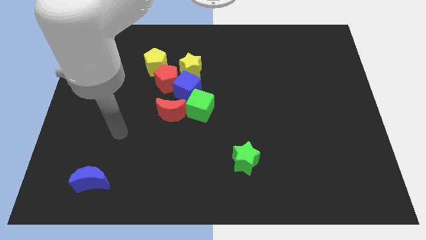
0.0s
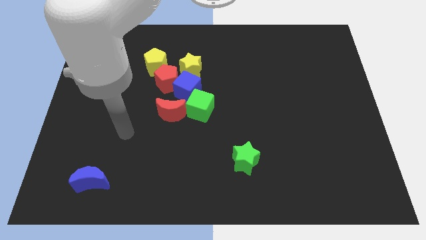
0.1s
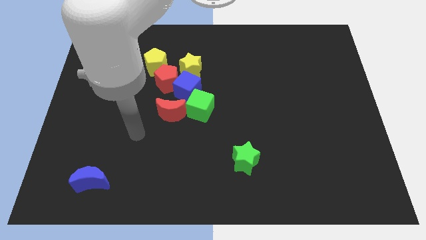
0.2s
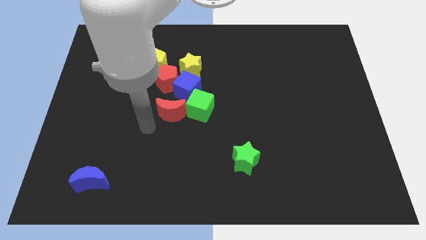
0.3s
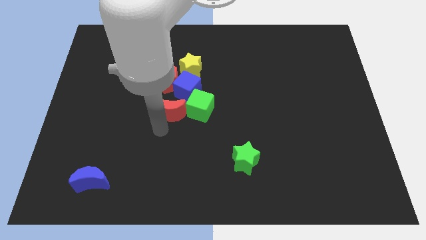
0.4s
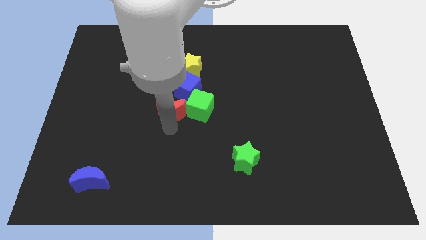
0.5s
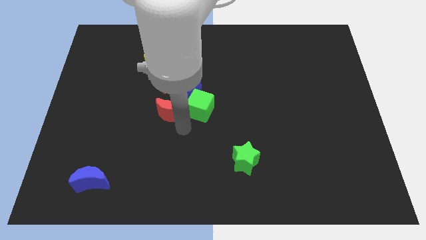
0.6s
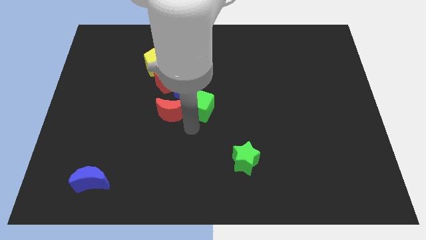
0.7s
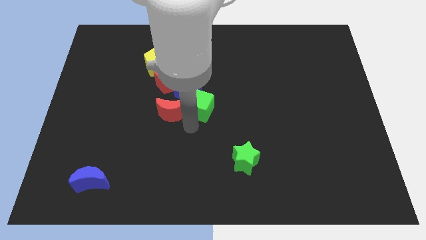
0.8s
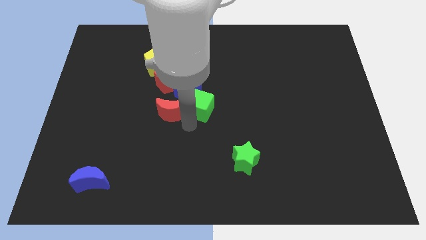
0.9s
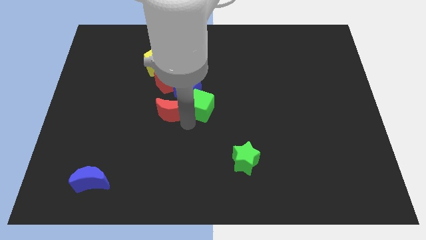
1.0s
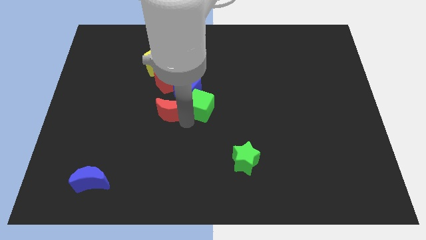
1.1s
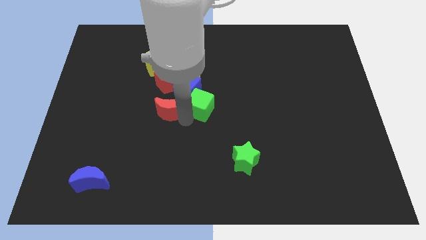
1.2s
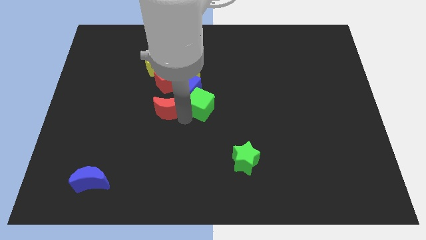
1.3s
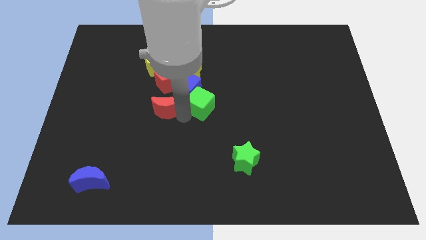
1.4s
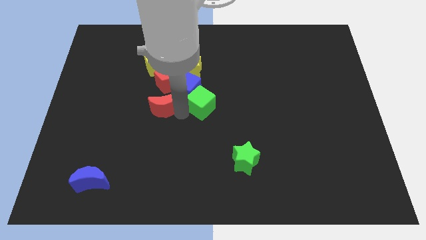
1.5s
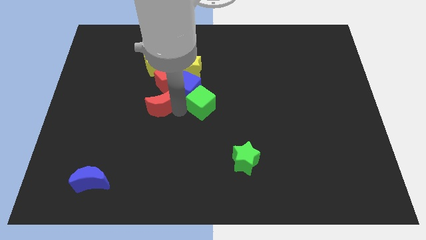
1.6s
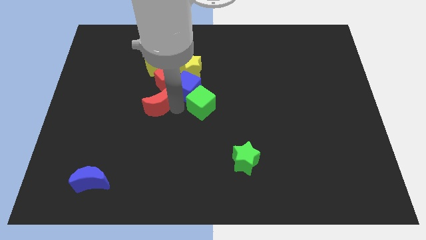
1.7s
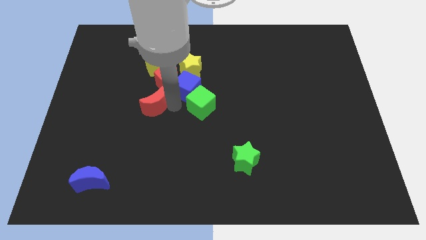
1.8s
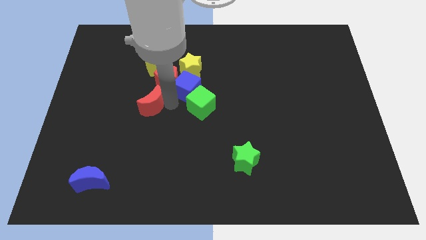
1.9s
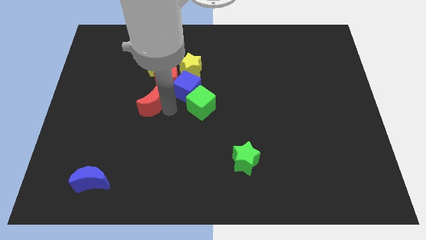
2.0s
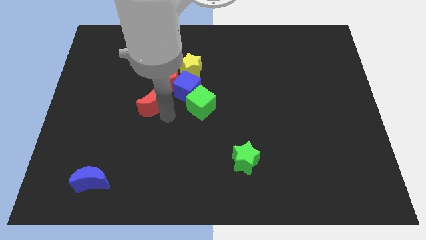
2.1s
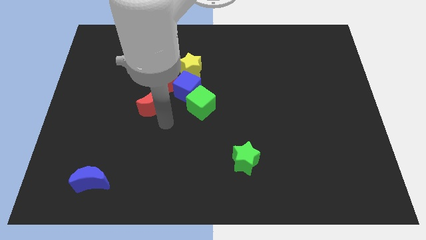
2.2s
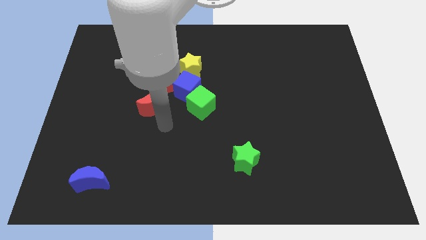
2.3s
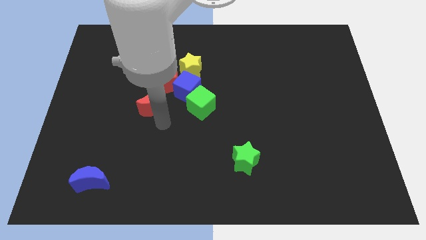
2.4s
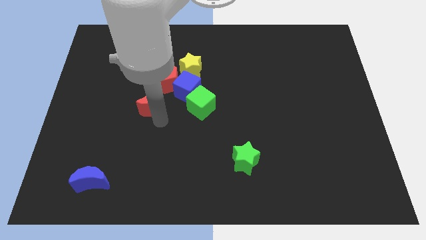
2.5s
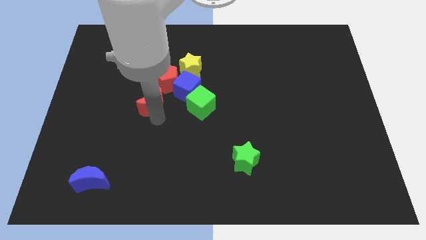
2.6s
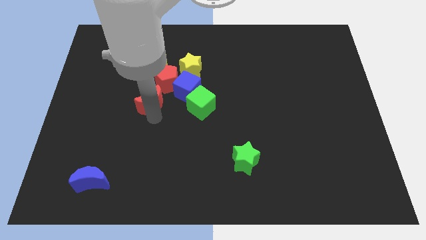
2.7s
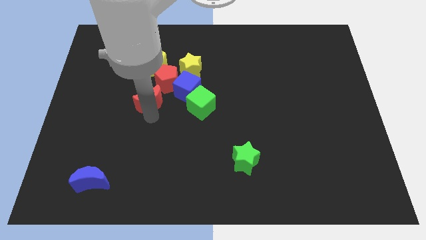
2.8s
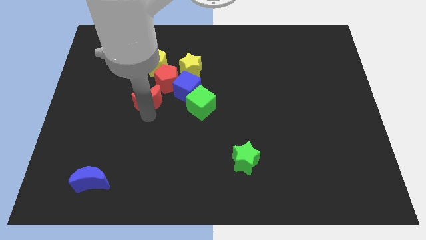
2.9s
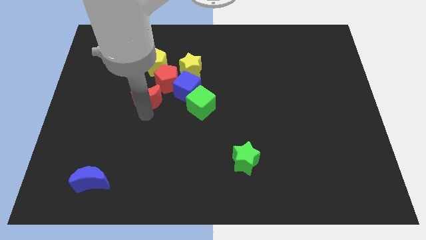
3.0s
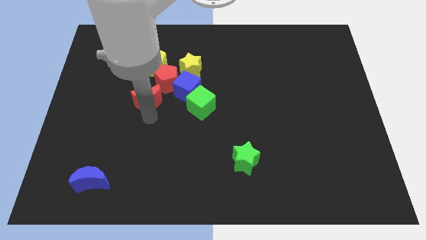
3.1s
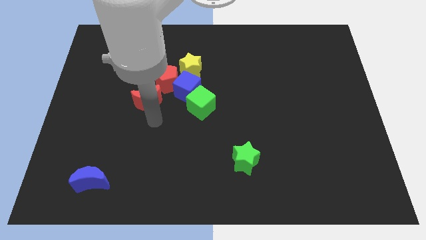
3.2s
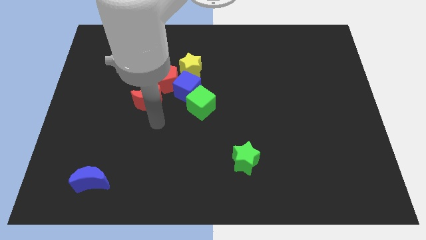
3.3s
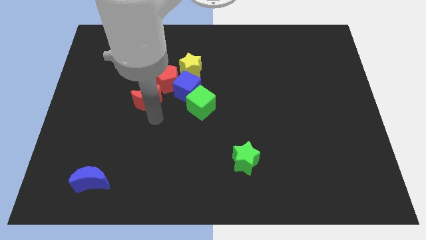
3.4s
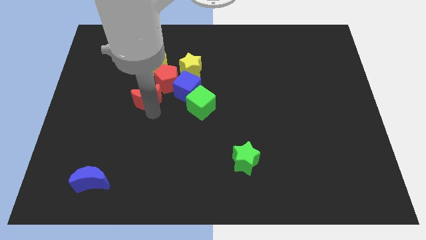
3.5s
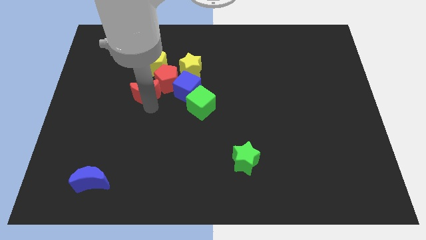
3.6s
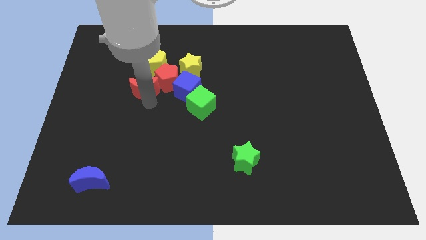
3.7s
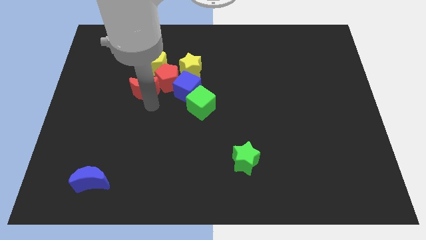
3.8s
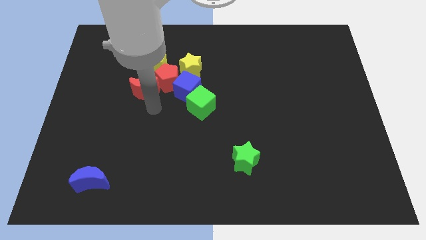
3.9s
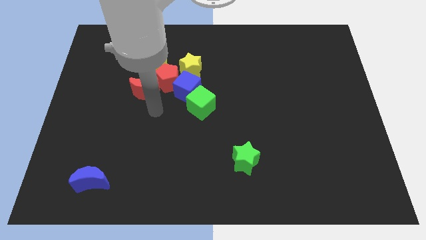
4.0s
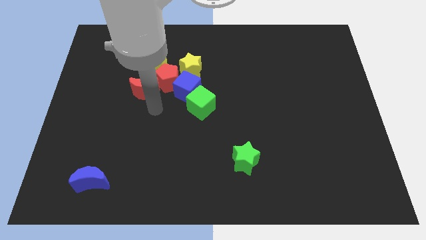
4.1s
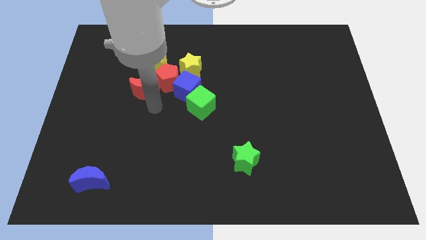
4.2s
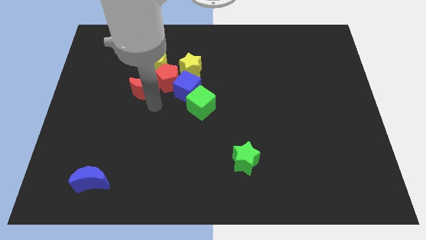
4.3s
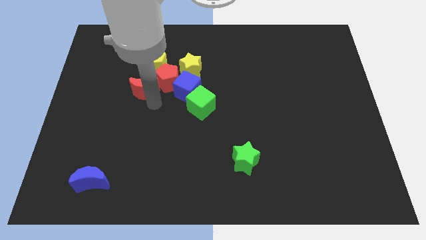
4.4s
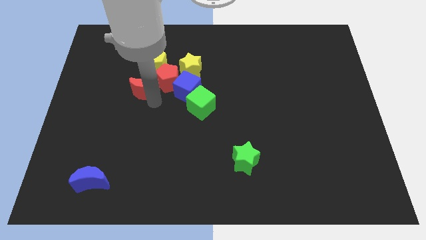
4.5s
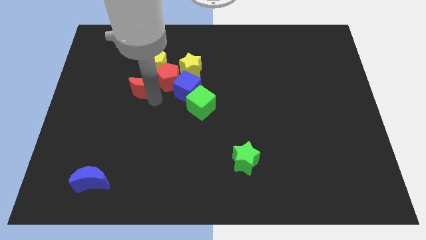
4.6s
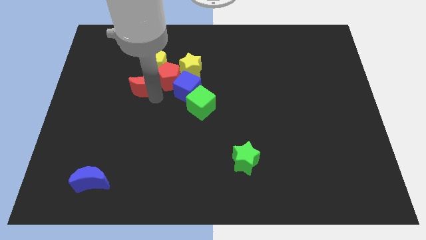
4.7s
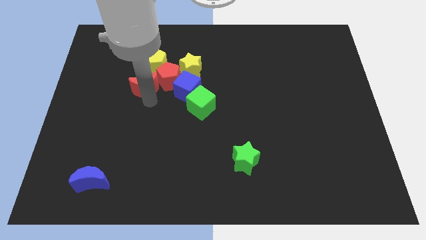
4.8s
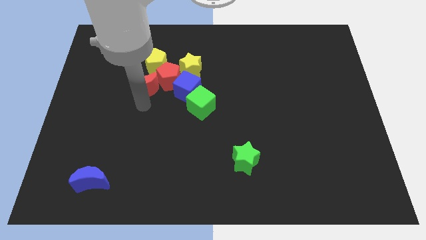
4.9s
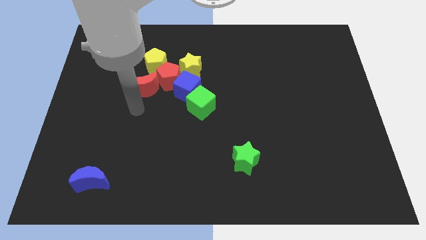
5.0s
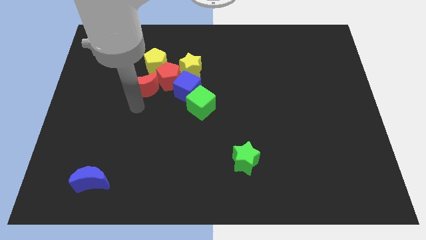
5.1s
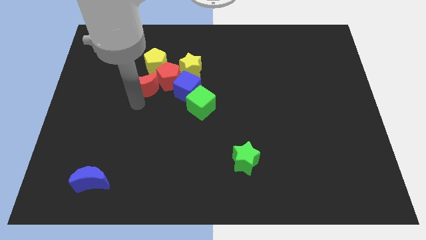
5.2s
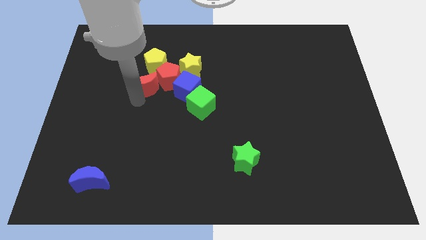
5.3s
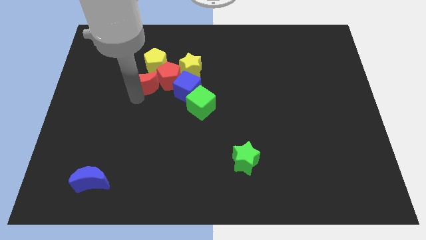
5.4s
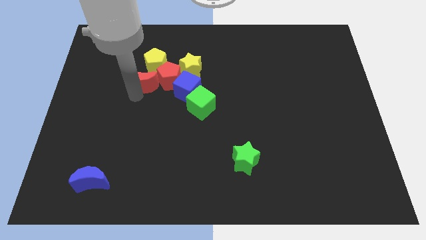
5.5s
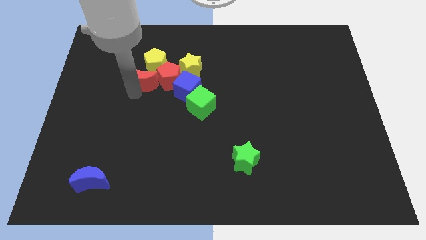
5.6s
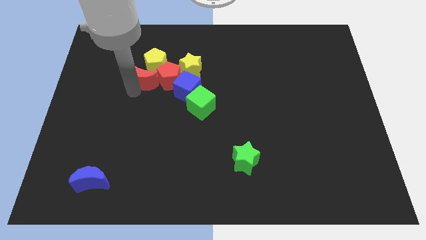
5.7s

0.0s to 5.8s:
put the red moon close to the yellow pentagon

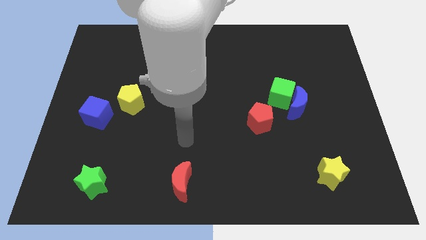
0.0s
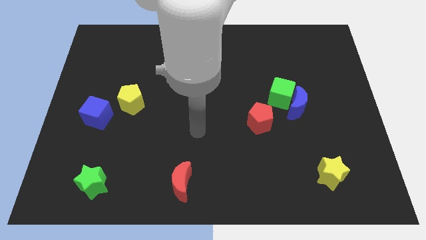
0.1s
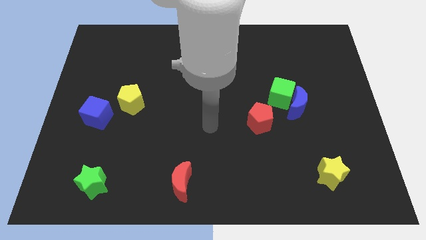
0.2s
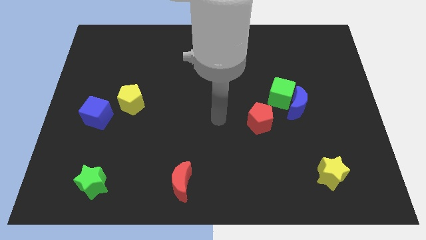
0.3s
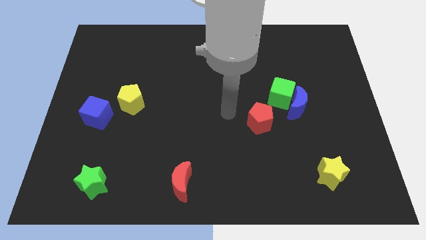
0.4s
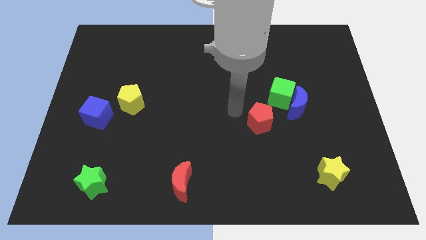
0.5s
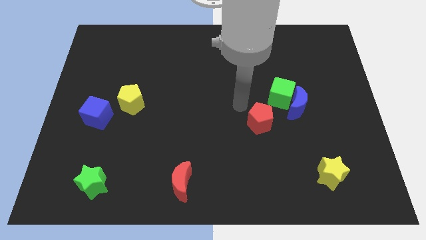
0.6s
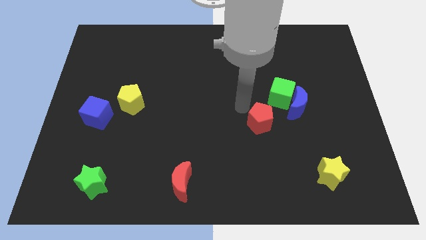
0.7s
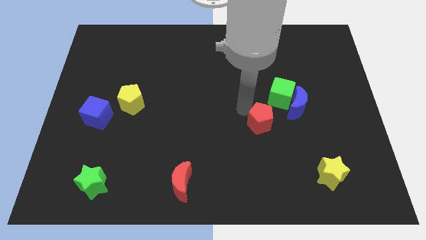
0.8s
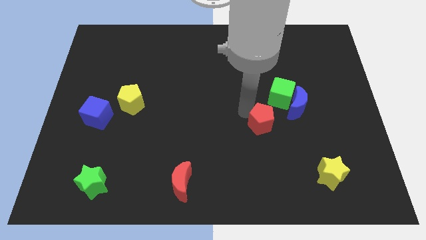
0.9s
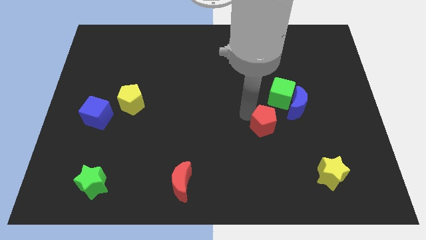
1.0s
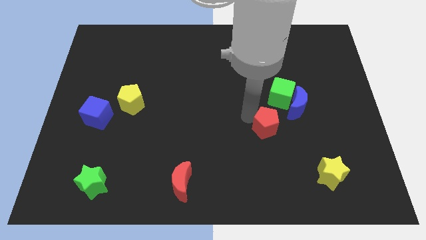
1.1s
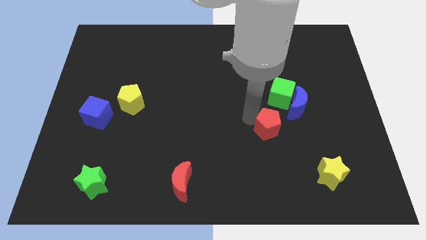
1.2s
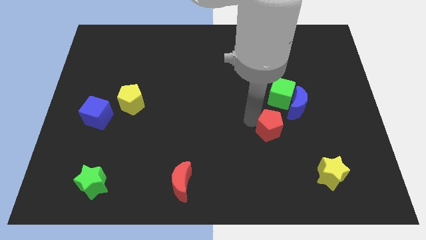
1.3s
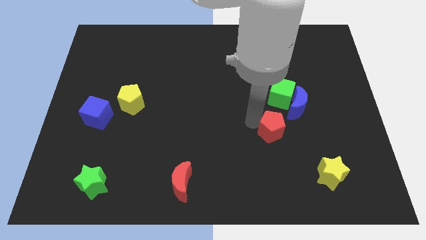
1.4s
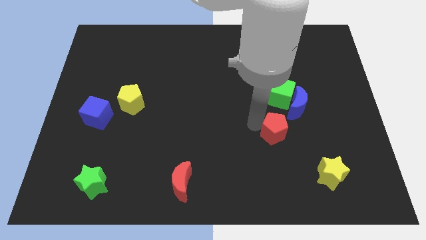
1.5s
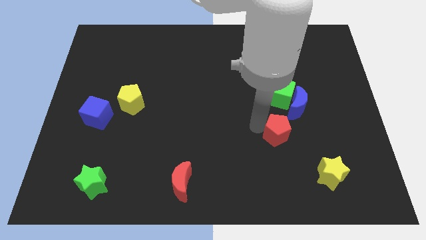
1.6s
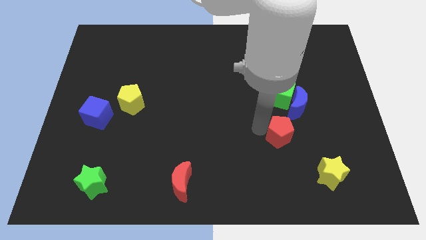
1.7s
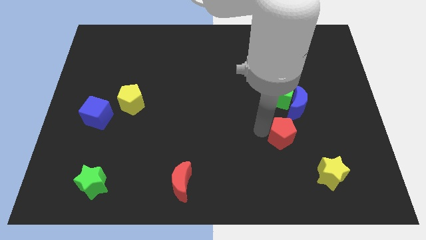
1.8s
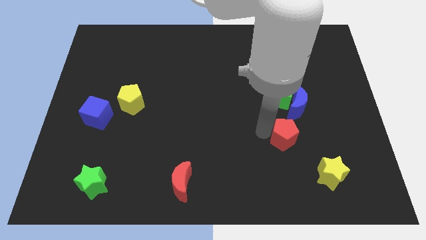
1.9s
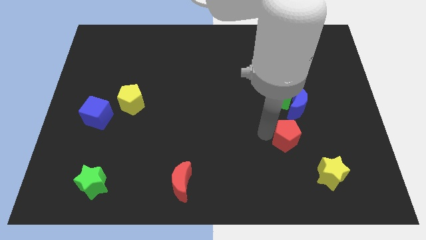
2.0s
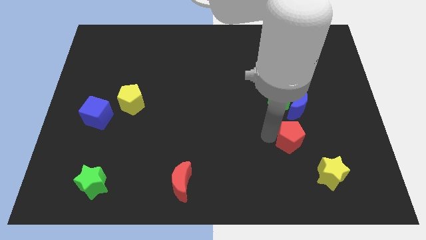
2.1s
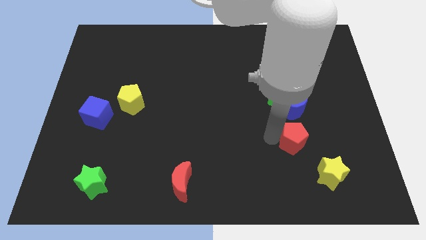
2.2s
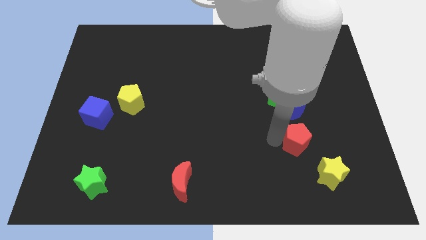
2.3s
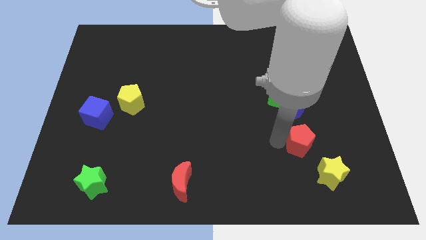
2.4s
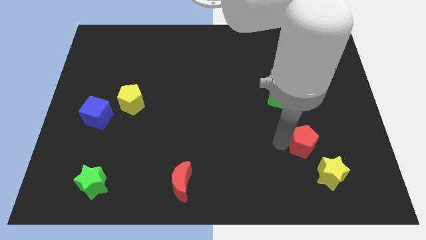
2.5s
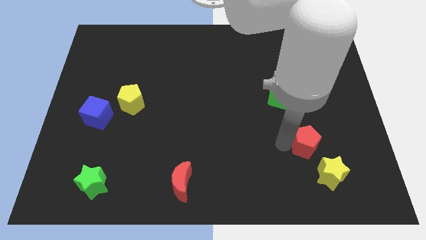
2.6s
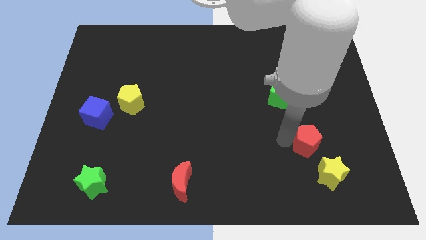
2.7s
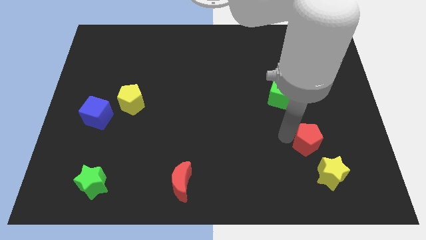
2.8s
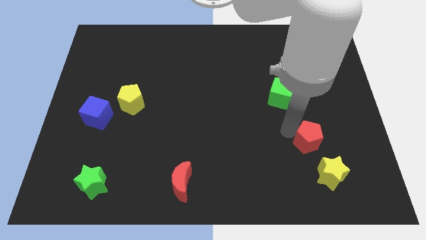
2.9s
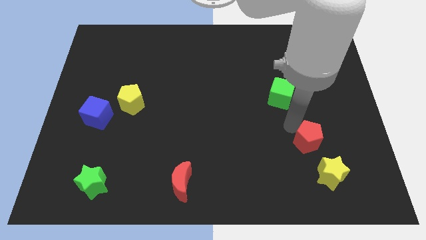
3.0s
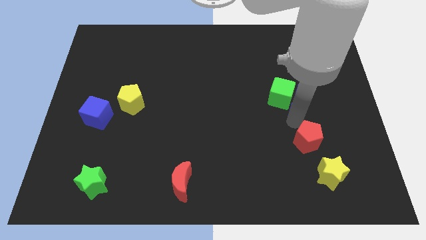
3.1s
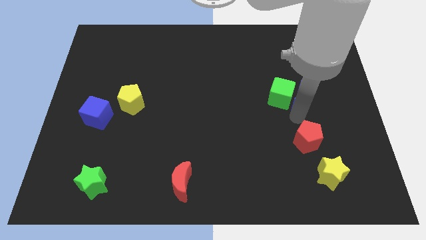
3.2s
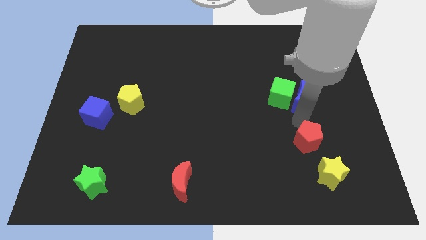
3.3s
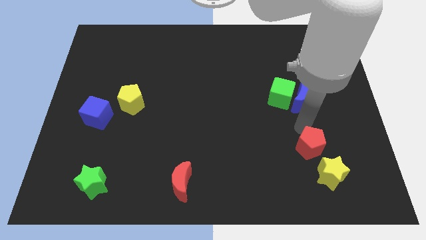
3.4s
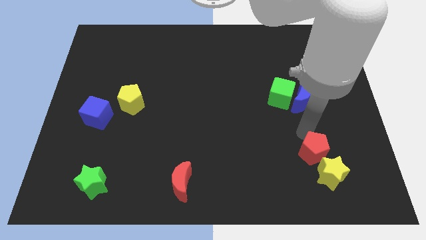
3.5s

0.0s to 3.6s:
push the red pentagon to the yellow star
